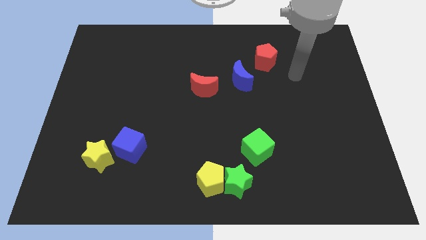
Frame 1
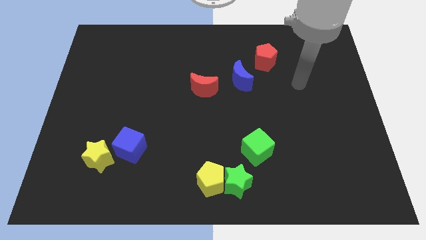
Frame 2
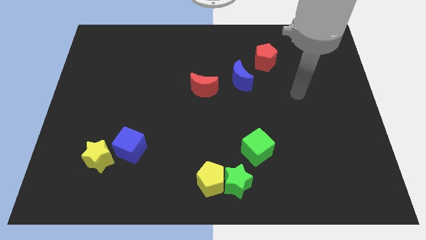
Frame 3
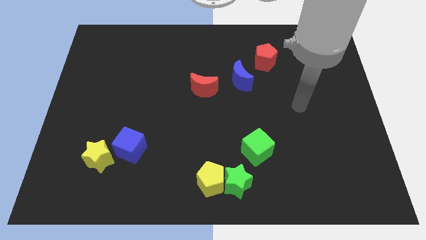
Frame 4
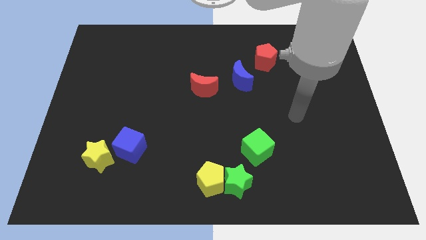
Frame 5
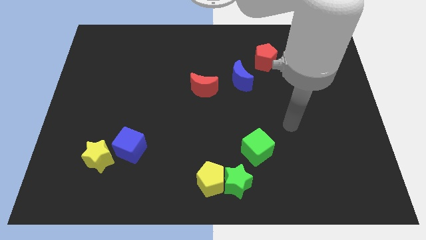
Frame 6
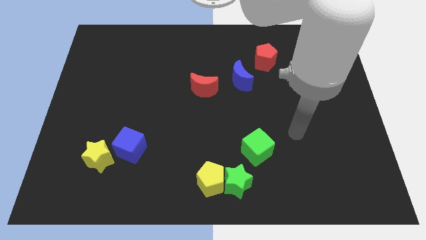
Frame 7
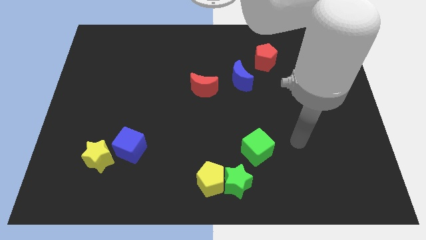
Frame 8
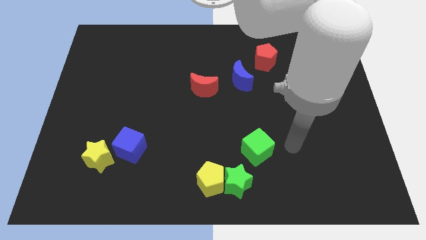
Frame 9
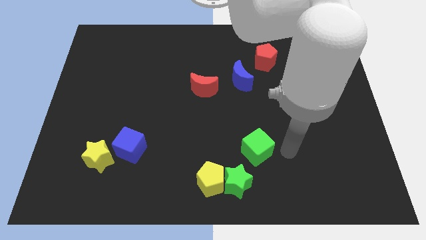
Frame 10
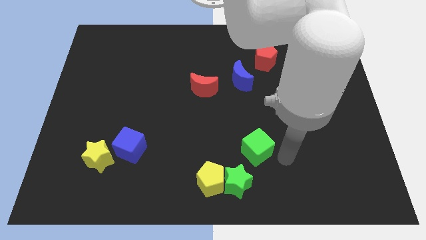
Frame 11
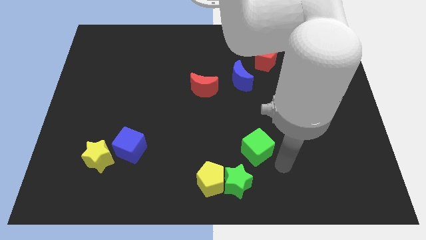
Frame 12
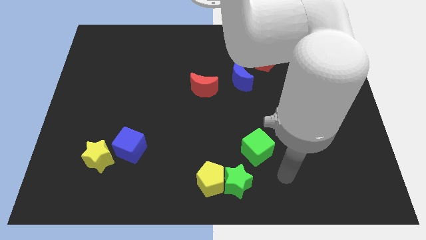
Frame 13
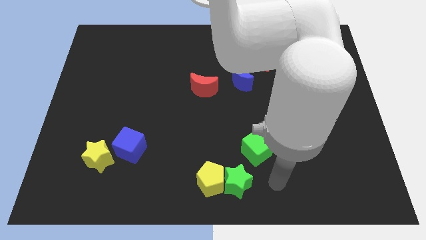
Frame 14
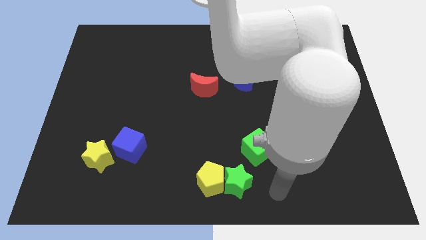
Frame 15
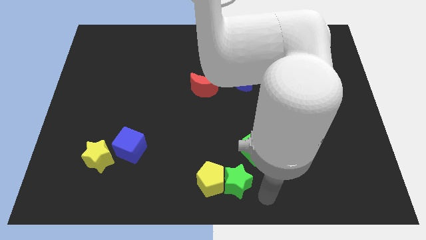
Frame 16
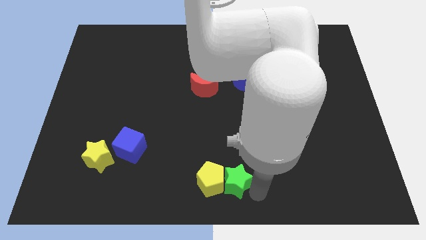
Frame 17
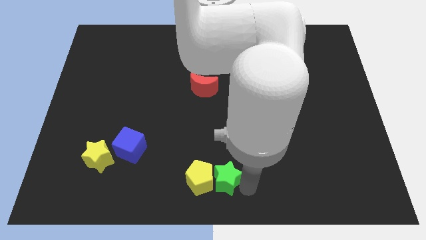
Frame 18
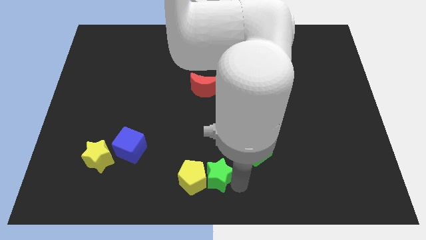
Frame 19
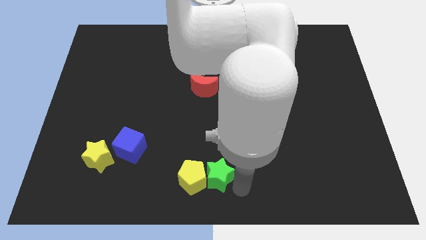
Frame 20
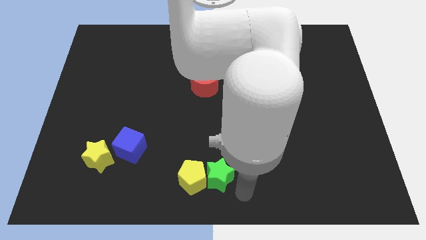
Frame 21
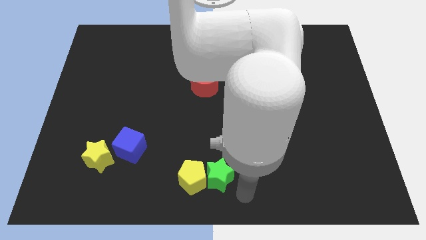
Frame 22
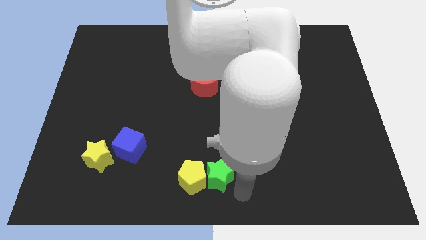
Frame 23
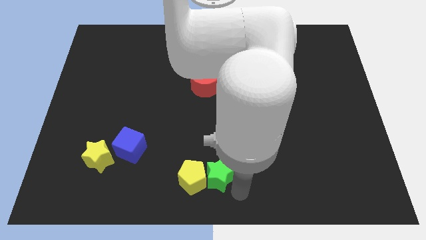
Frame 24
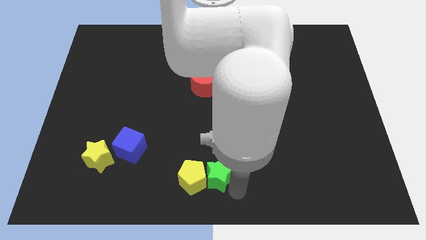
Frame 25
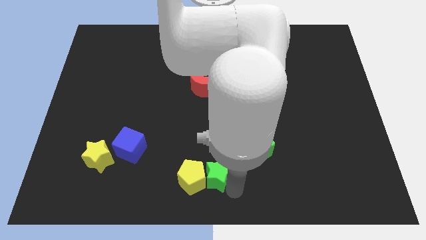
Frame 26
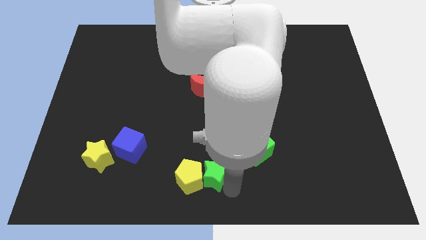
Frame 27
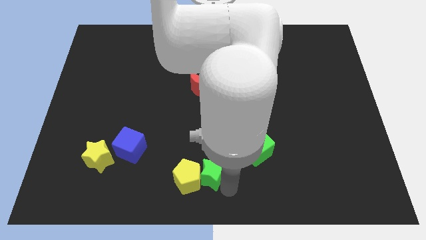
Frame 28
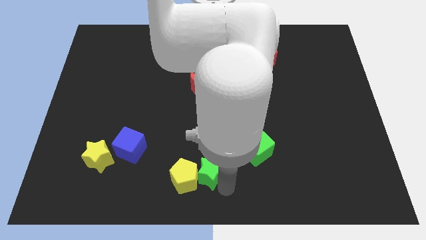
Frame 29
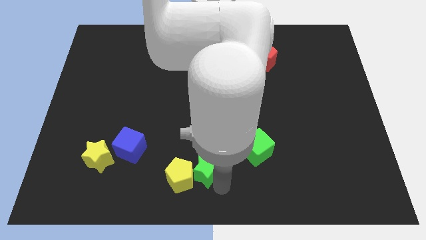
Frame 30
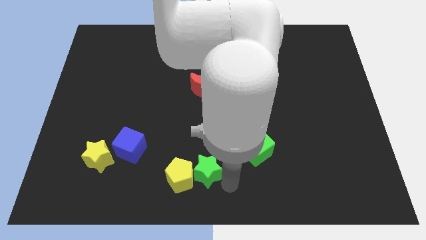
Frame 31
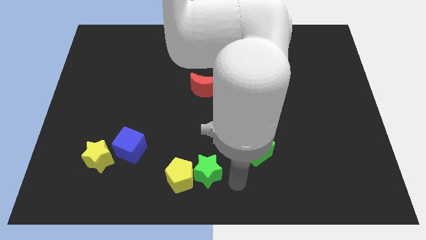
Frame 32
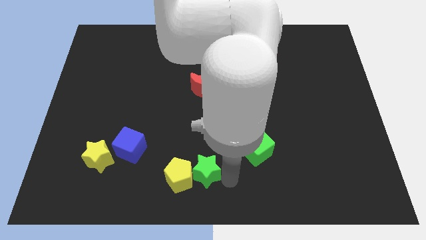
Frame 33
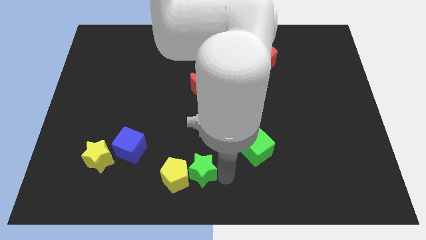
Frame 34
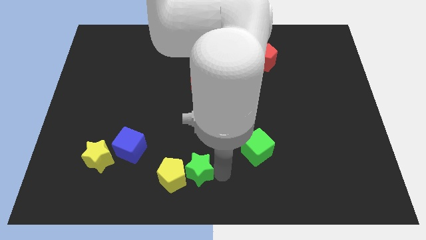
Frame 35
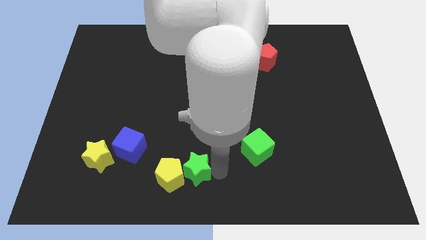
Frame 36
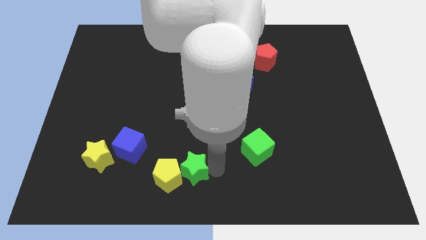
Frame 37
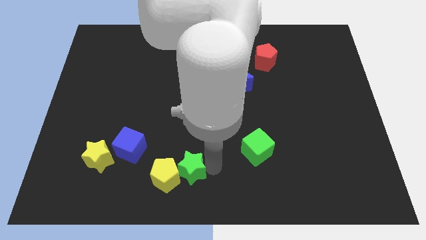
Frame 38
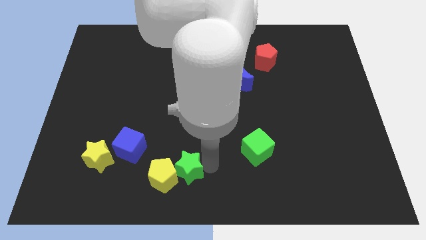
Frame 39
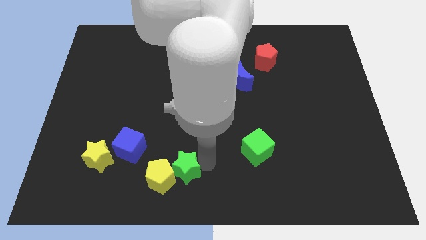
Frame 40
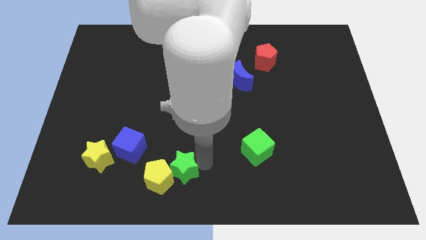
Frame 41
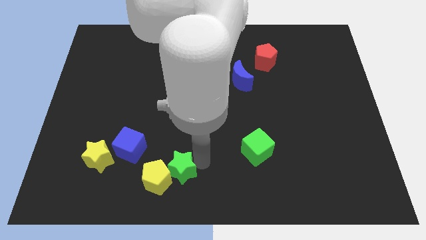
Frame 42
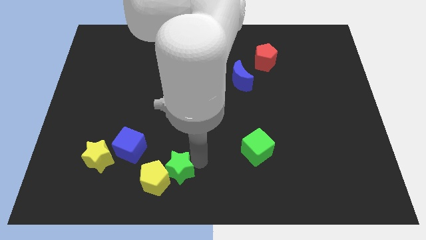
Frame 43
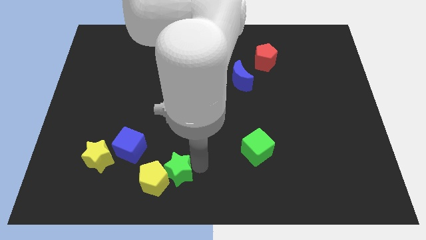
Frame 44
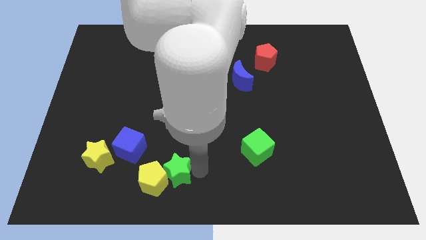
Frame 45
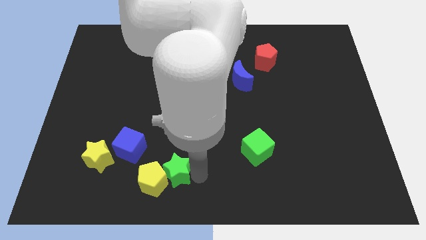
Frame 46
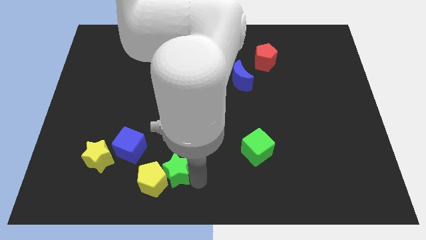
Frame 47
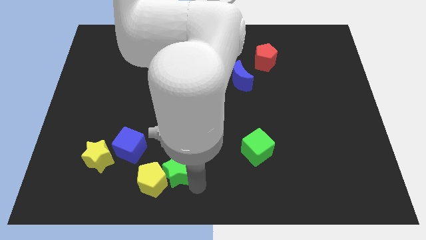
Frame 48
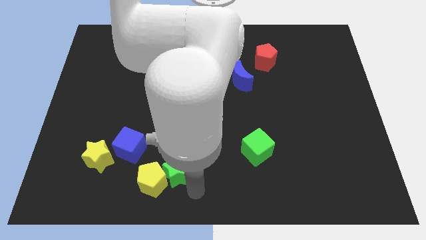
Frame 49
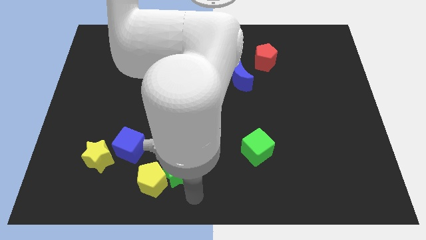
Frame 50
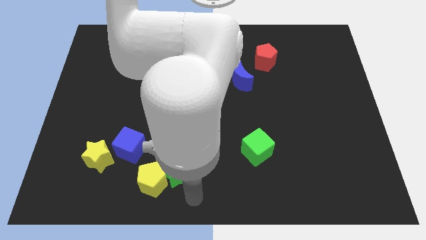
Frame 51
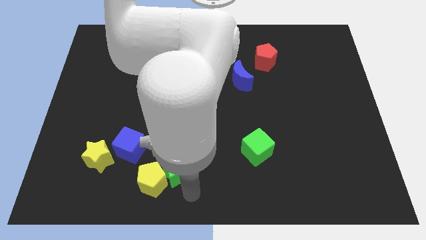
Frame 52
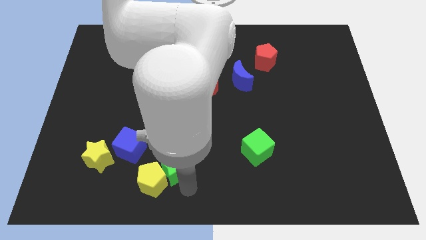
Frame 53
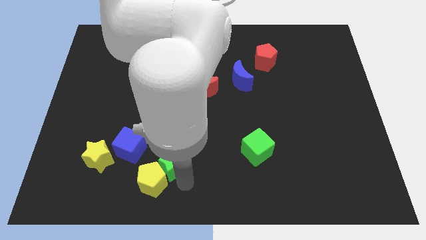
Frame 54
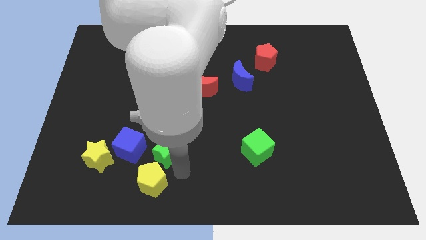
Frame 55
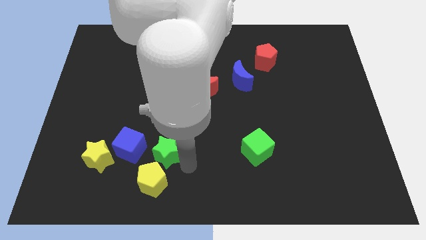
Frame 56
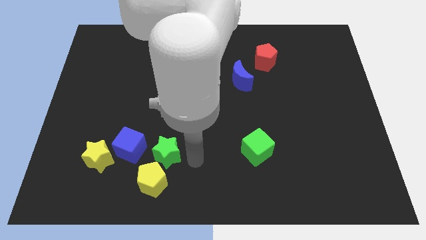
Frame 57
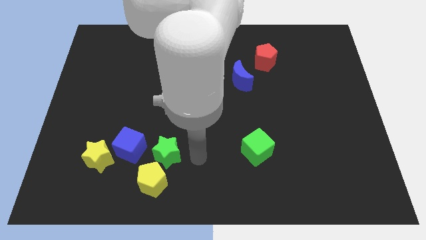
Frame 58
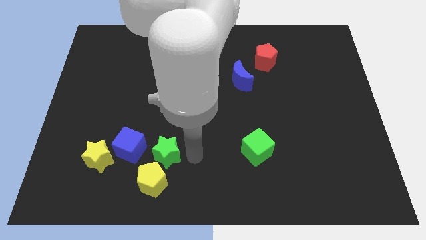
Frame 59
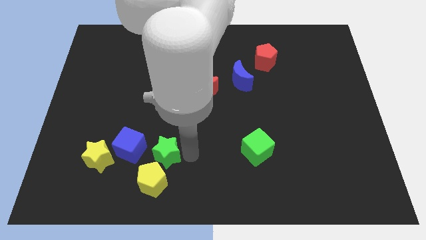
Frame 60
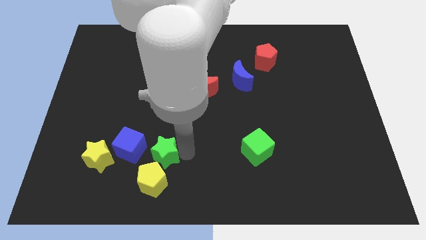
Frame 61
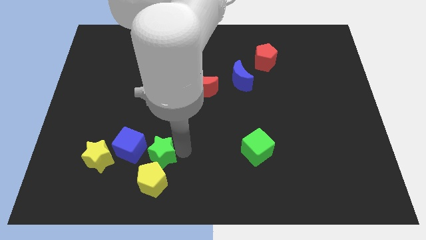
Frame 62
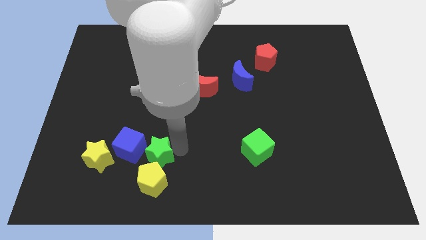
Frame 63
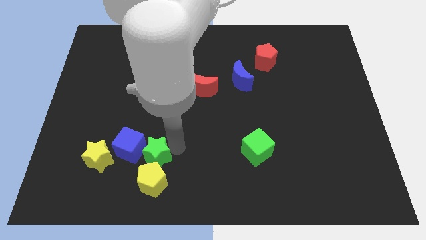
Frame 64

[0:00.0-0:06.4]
slide the green star to the blue cube

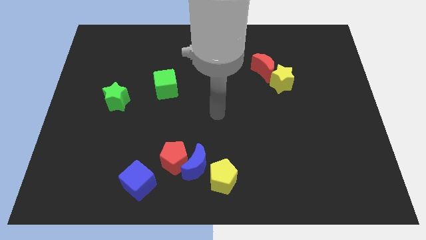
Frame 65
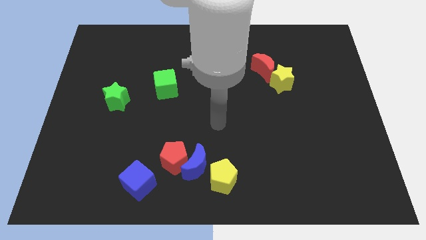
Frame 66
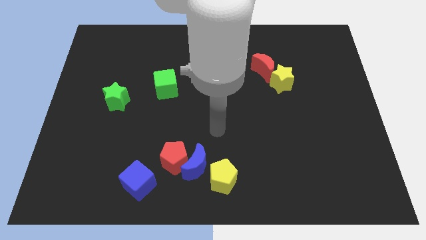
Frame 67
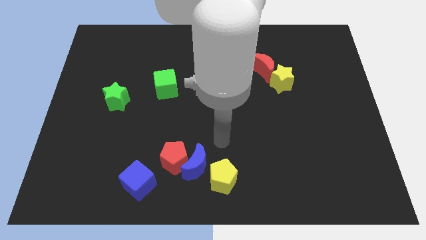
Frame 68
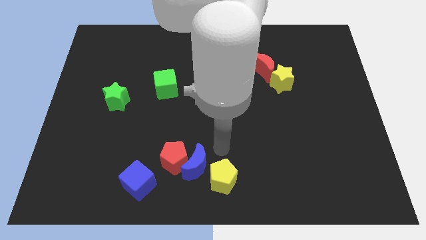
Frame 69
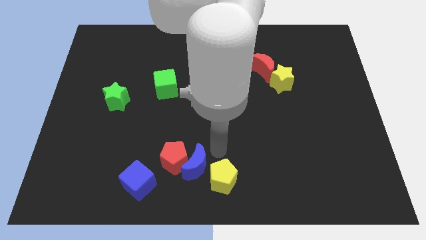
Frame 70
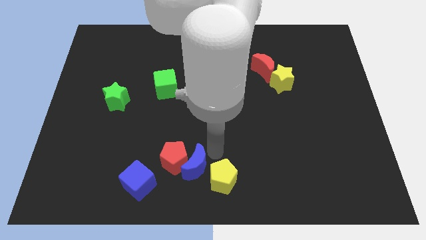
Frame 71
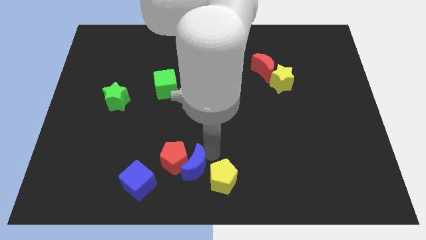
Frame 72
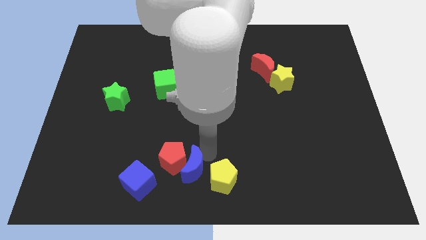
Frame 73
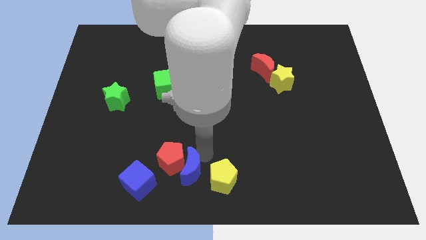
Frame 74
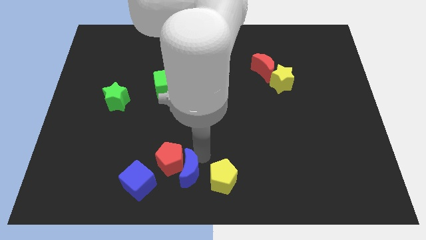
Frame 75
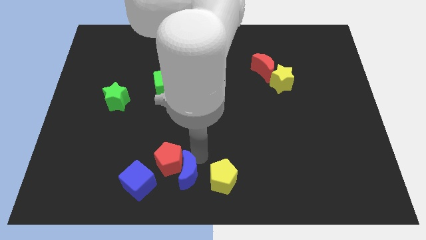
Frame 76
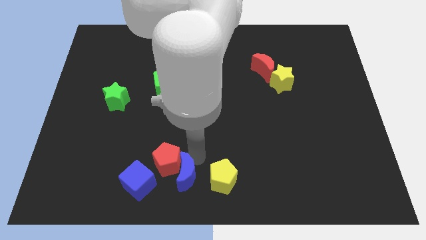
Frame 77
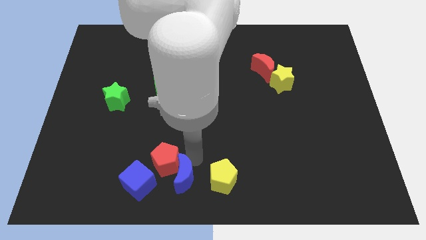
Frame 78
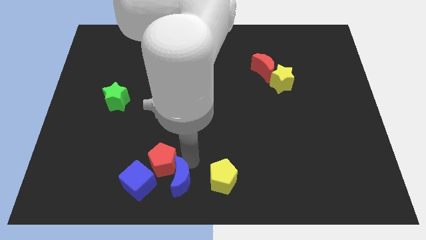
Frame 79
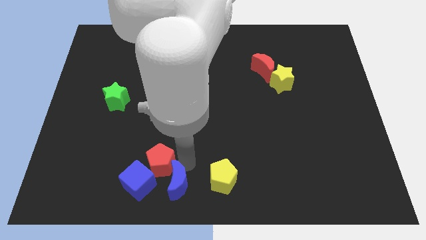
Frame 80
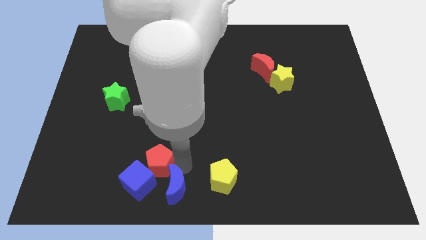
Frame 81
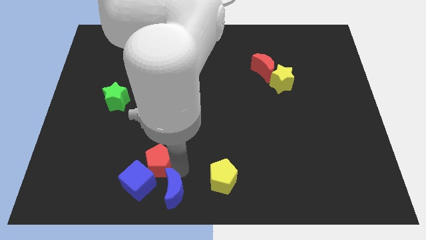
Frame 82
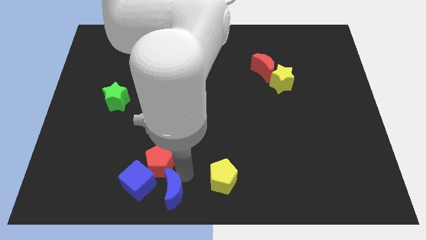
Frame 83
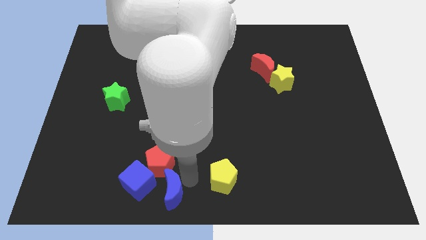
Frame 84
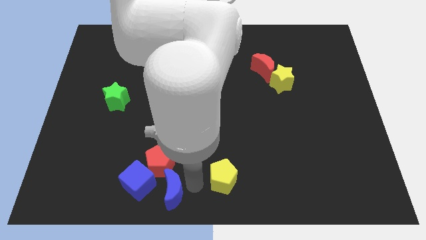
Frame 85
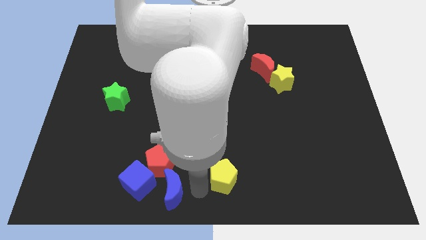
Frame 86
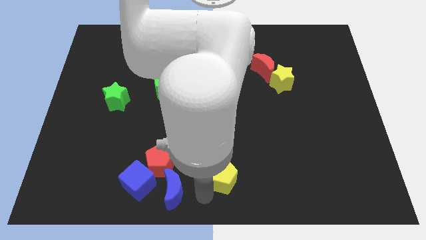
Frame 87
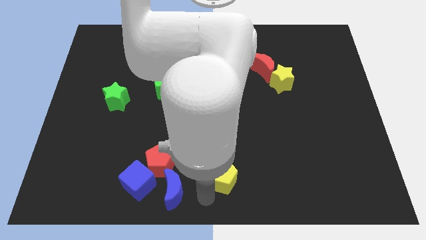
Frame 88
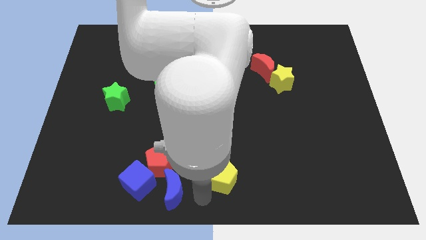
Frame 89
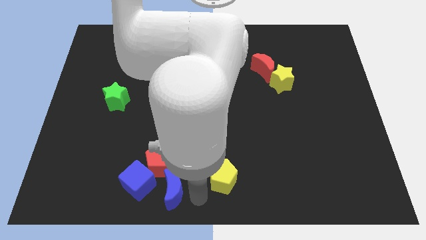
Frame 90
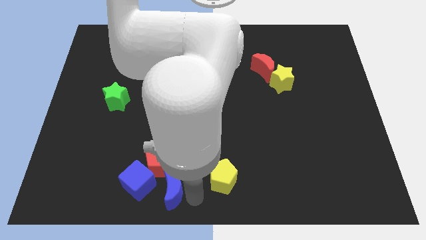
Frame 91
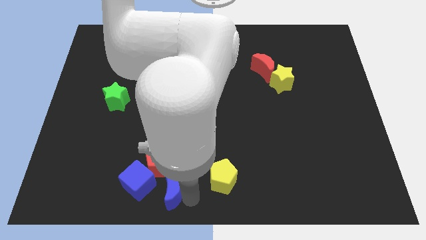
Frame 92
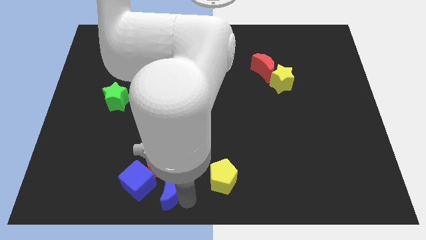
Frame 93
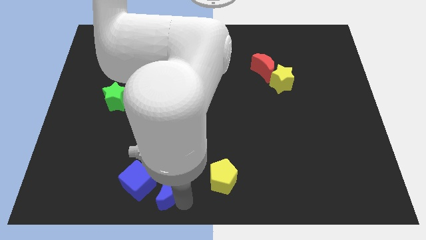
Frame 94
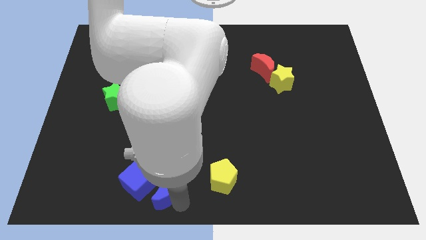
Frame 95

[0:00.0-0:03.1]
put the blue moon towards the blue cube
